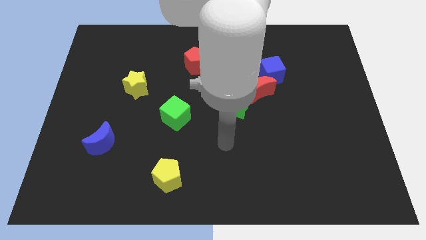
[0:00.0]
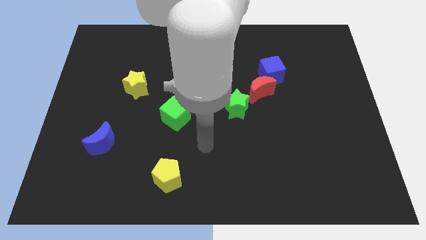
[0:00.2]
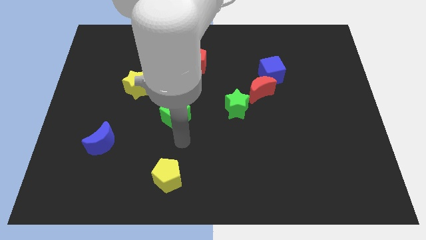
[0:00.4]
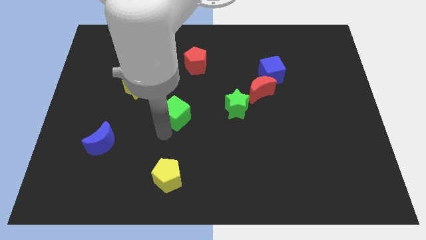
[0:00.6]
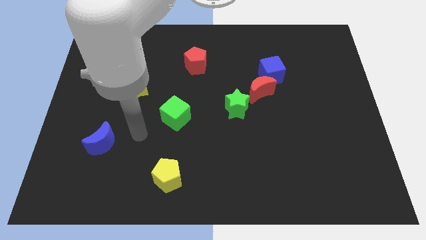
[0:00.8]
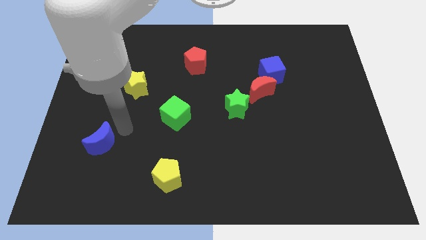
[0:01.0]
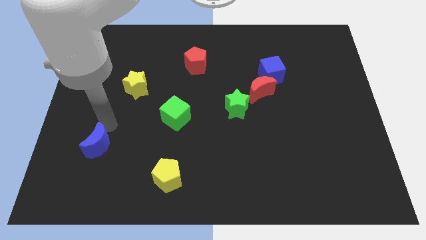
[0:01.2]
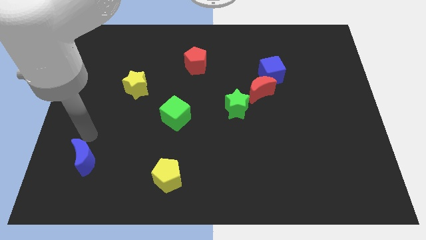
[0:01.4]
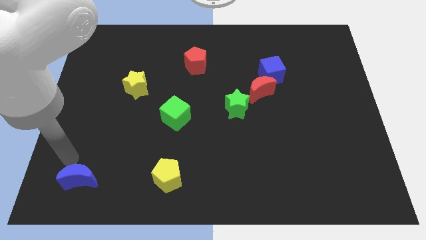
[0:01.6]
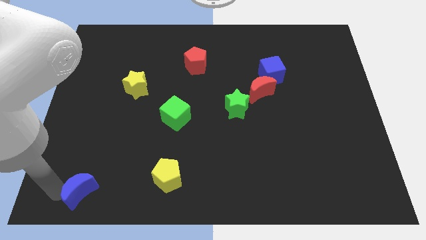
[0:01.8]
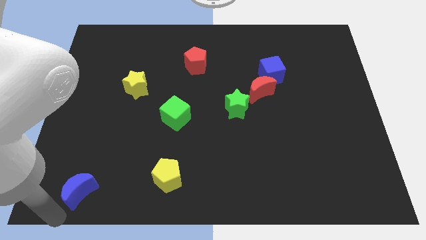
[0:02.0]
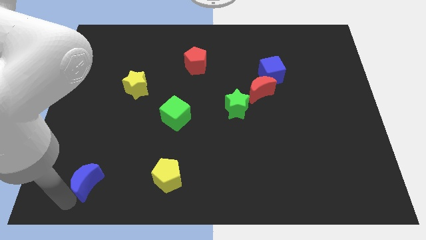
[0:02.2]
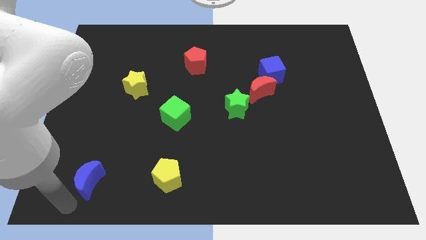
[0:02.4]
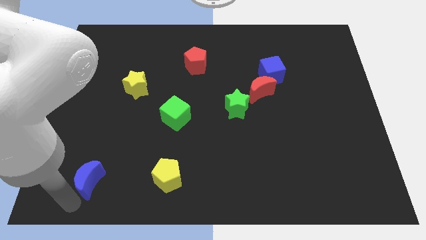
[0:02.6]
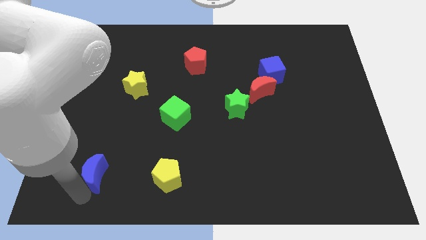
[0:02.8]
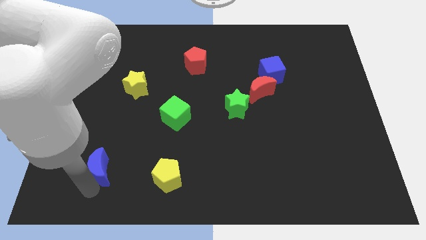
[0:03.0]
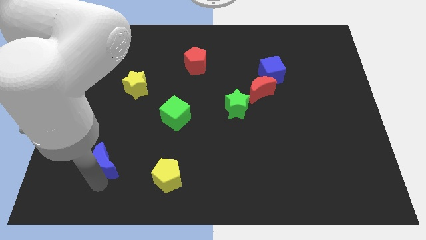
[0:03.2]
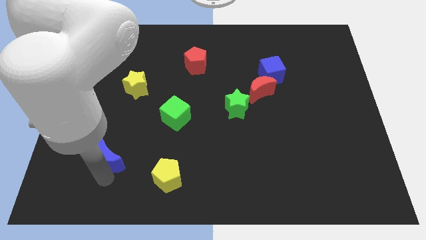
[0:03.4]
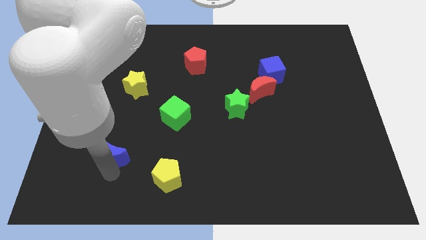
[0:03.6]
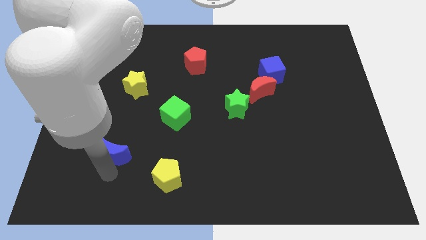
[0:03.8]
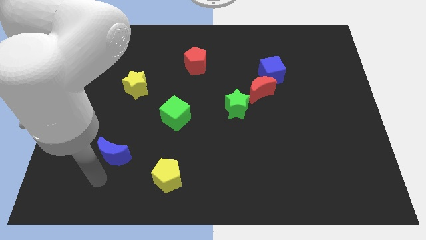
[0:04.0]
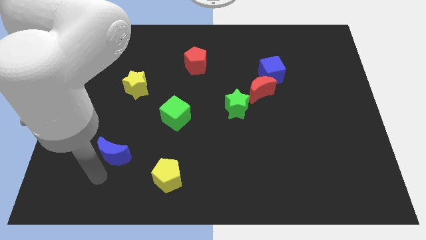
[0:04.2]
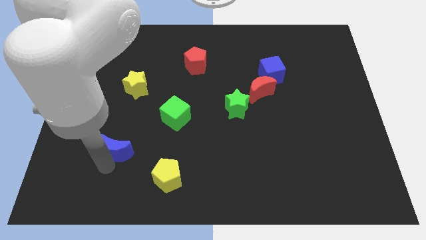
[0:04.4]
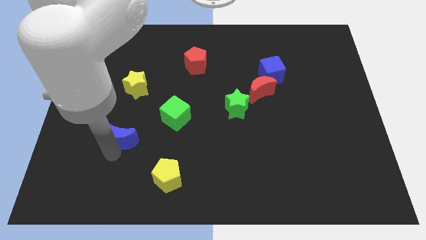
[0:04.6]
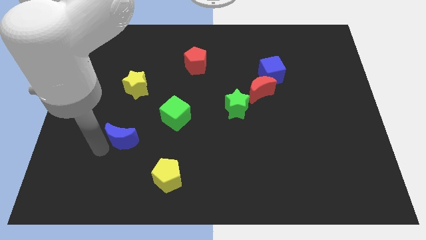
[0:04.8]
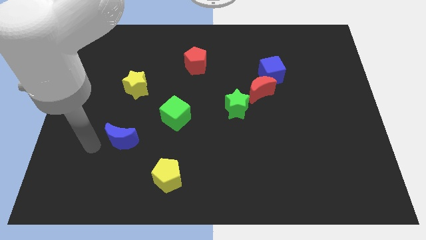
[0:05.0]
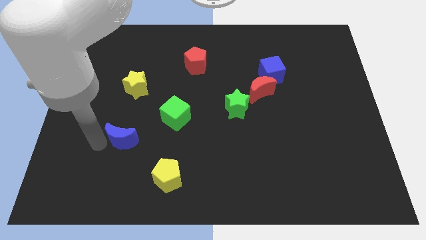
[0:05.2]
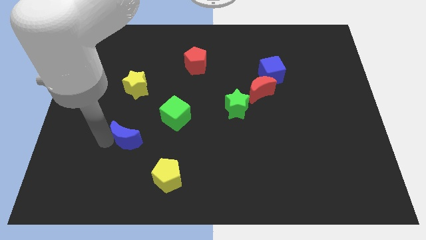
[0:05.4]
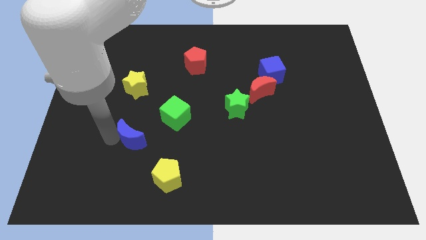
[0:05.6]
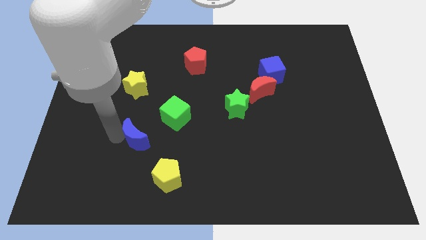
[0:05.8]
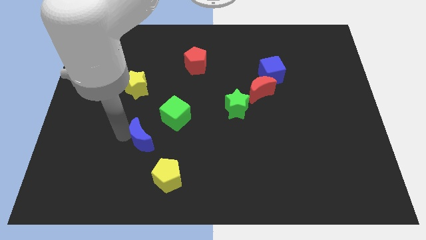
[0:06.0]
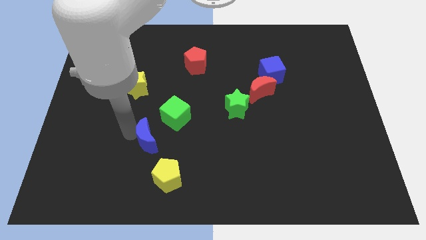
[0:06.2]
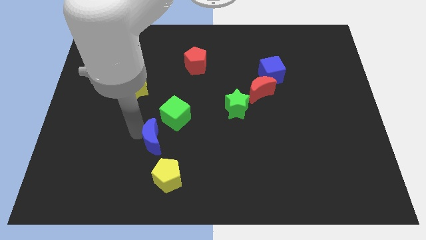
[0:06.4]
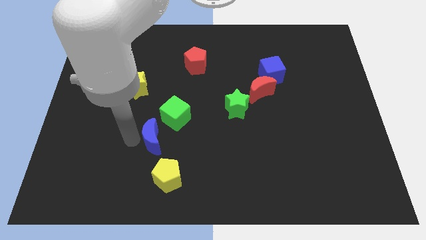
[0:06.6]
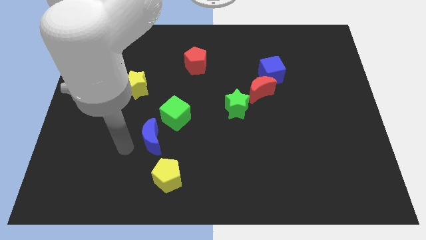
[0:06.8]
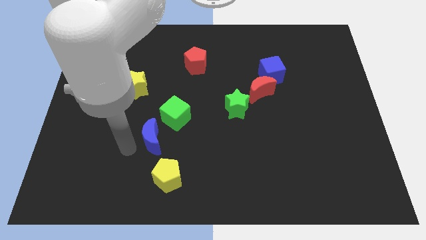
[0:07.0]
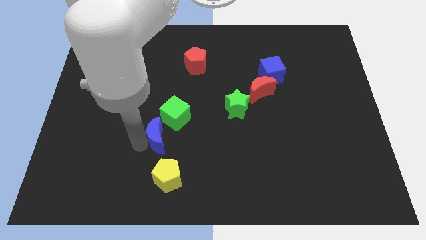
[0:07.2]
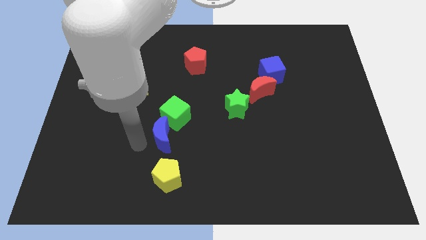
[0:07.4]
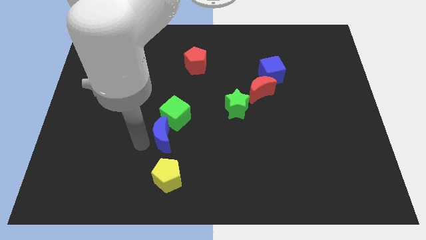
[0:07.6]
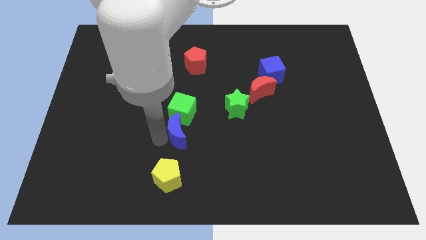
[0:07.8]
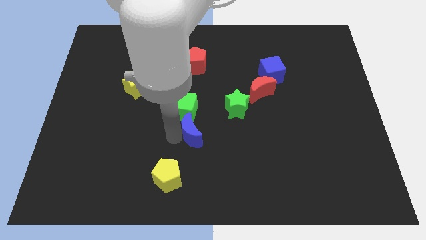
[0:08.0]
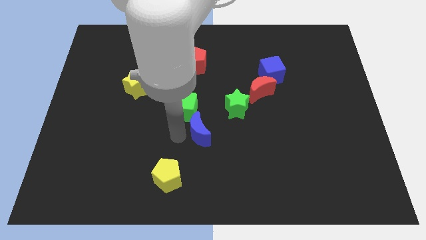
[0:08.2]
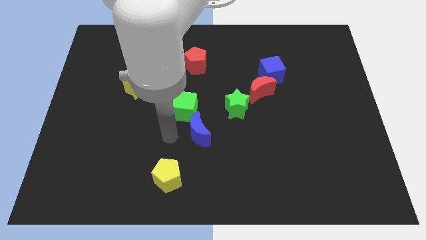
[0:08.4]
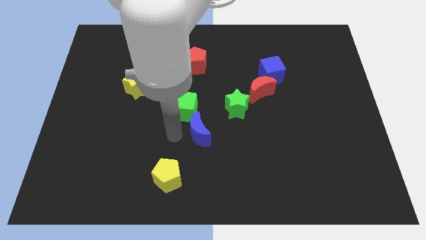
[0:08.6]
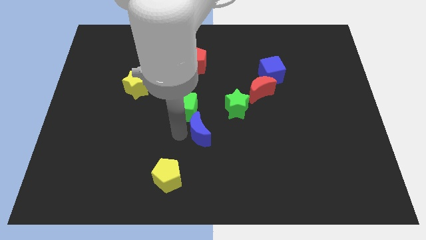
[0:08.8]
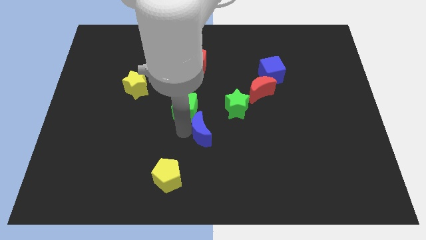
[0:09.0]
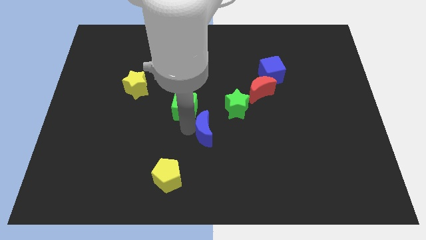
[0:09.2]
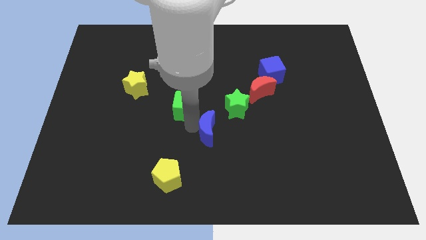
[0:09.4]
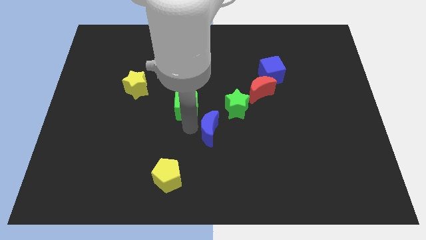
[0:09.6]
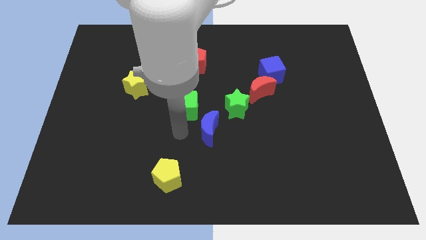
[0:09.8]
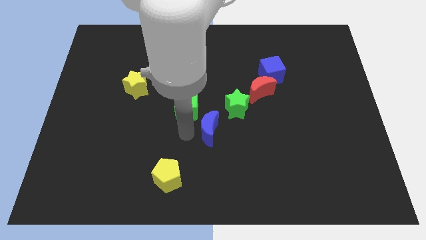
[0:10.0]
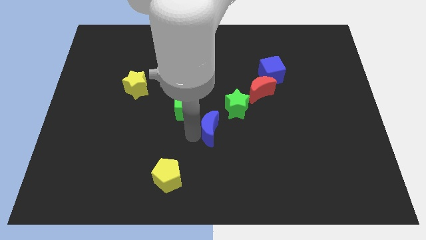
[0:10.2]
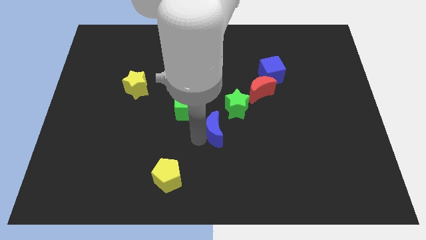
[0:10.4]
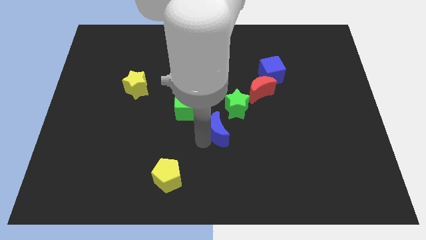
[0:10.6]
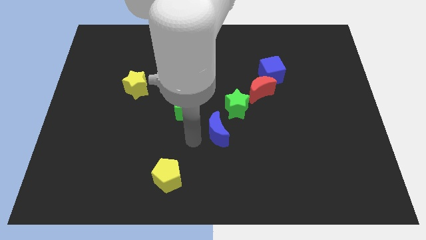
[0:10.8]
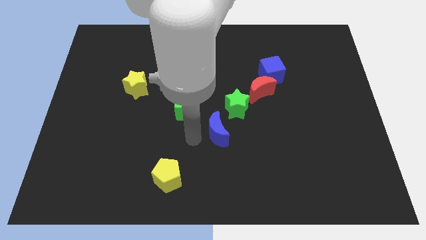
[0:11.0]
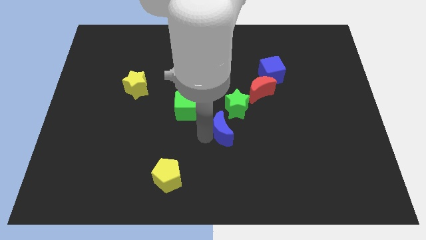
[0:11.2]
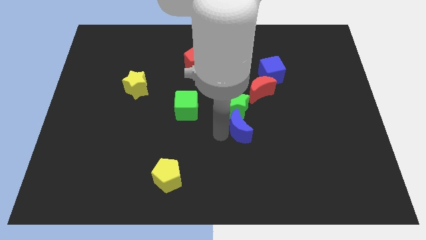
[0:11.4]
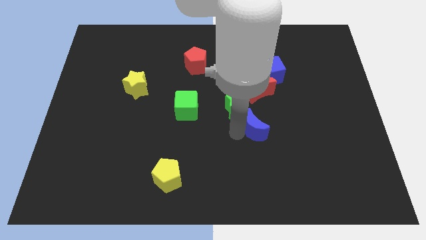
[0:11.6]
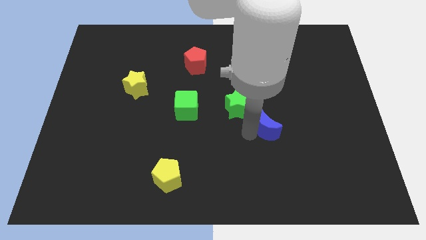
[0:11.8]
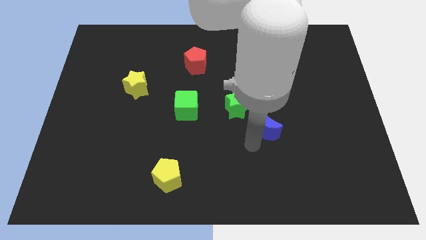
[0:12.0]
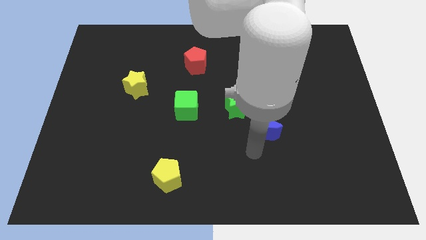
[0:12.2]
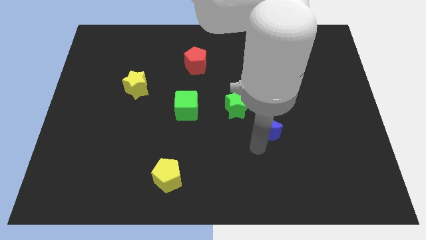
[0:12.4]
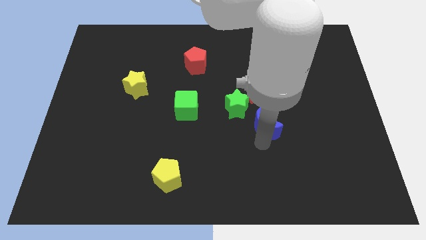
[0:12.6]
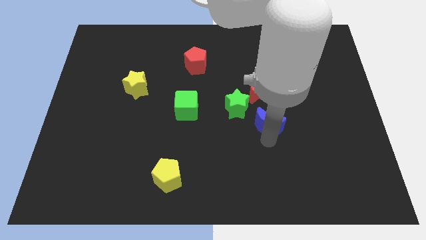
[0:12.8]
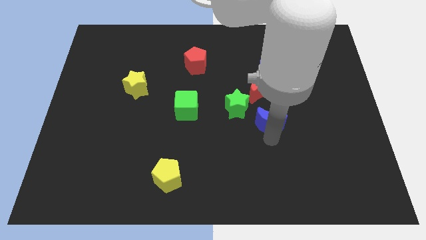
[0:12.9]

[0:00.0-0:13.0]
push the blue moon below the blue cube

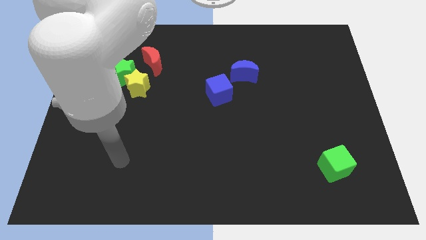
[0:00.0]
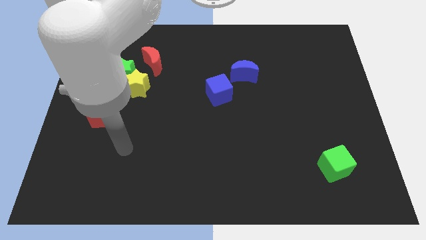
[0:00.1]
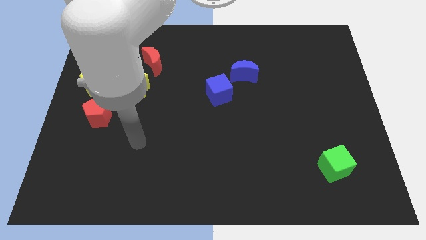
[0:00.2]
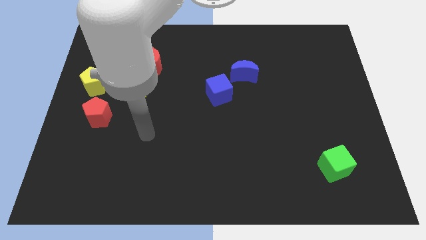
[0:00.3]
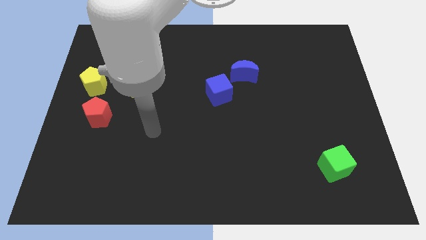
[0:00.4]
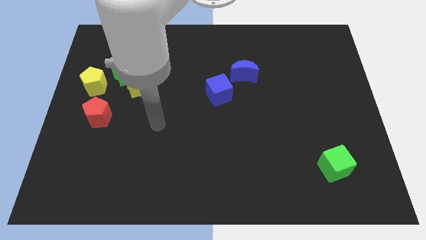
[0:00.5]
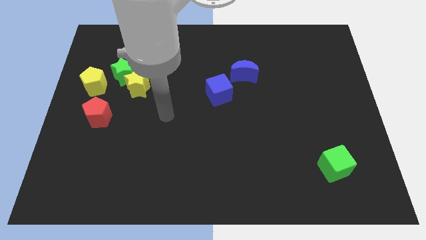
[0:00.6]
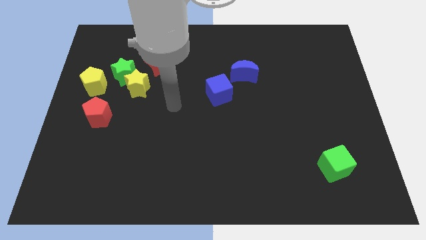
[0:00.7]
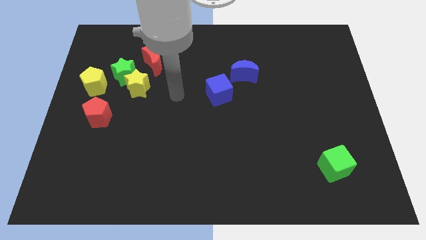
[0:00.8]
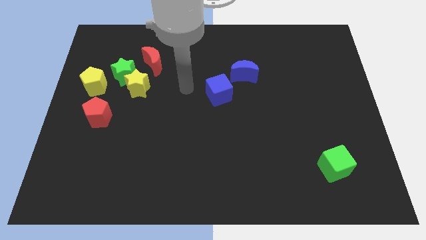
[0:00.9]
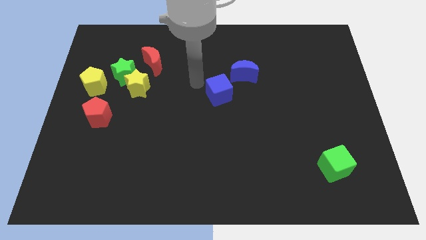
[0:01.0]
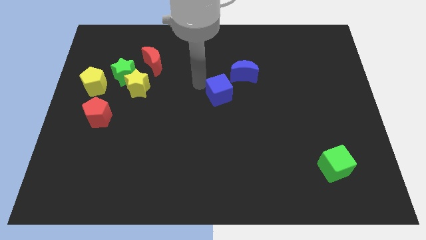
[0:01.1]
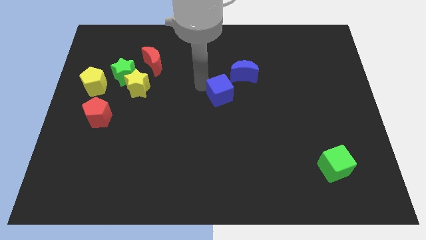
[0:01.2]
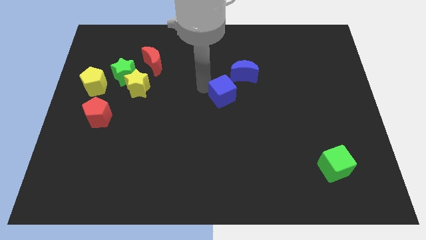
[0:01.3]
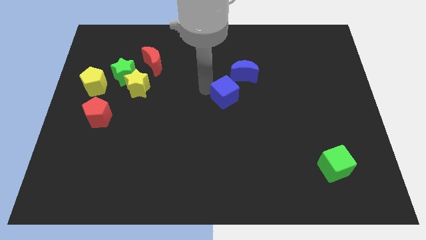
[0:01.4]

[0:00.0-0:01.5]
move the blue cube to the bottom side of the blue moon

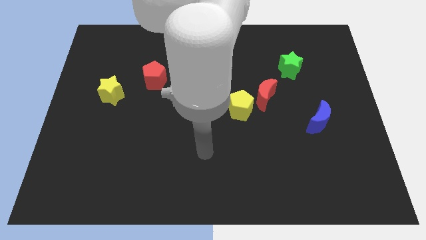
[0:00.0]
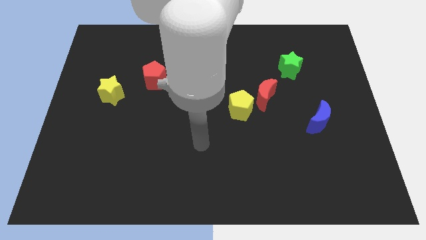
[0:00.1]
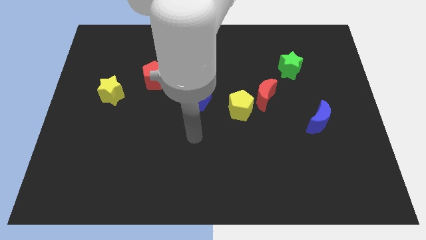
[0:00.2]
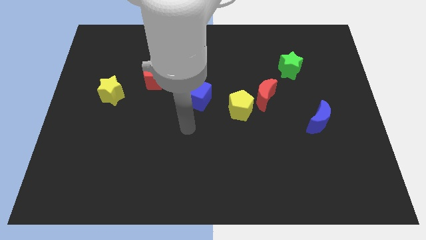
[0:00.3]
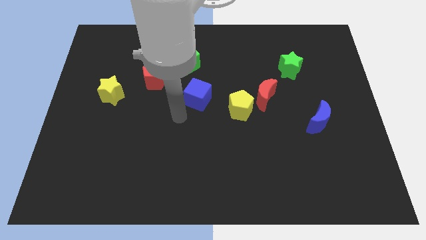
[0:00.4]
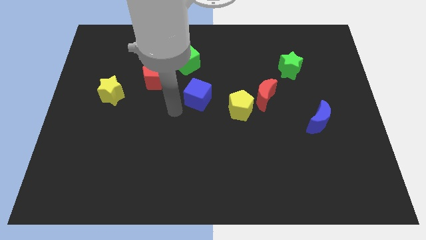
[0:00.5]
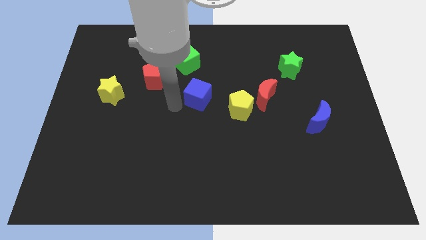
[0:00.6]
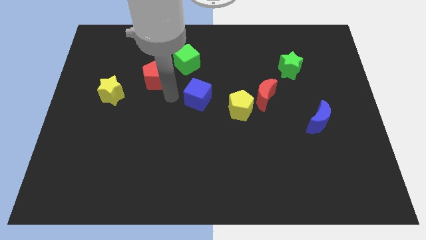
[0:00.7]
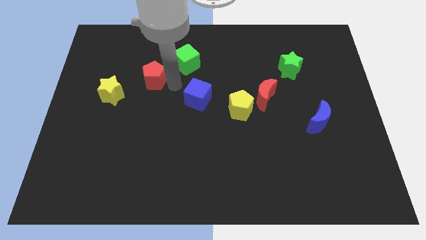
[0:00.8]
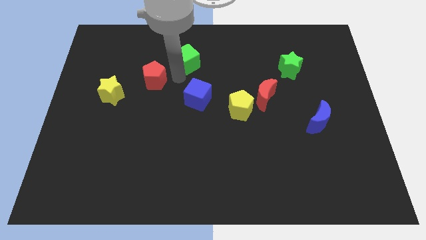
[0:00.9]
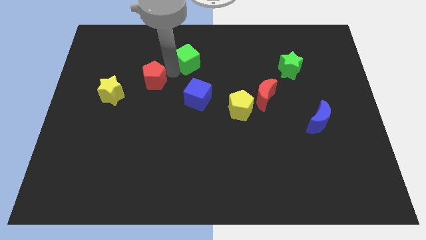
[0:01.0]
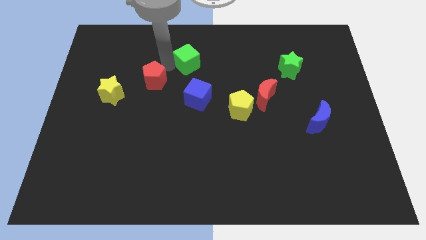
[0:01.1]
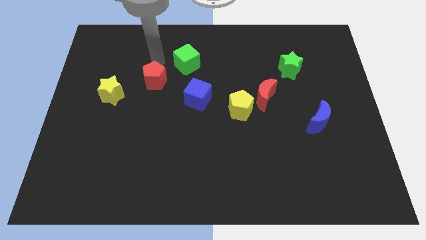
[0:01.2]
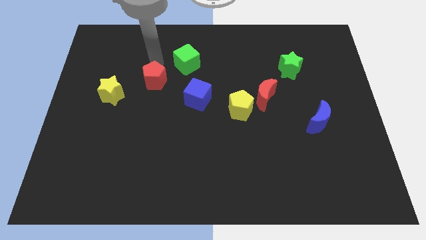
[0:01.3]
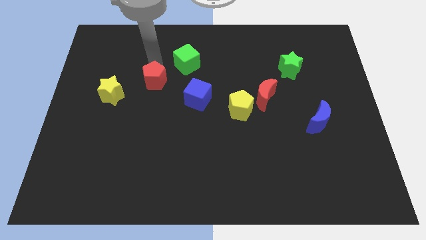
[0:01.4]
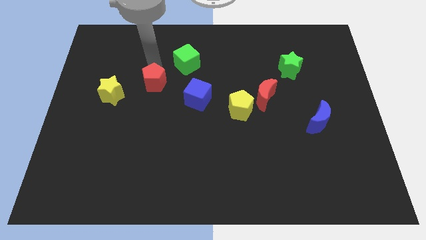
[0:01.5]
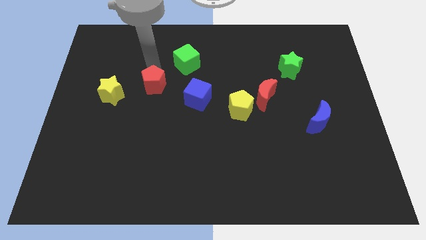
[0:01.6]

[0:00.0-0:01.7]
slide the red pentagon just left of the blue cube
